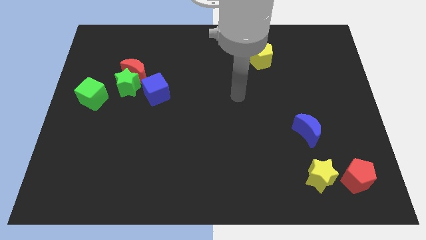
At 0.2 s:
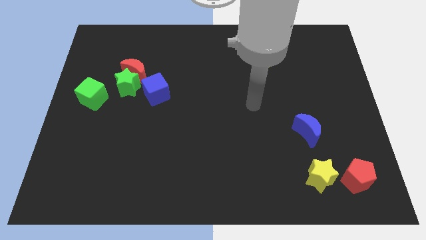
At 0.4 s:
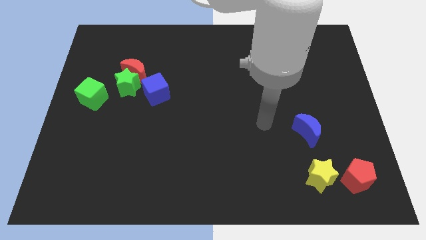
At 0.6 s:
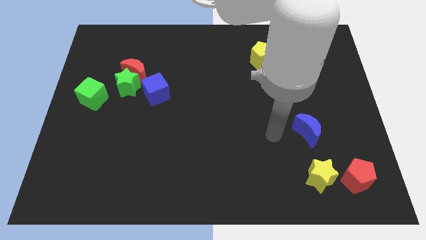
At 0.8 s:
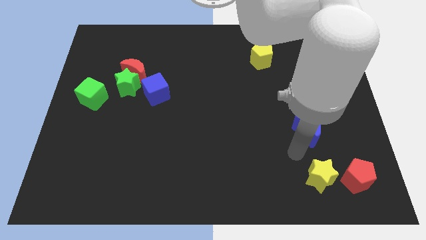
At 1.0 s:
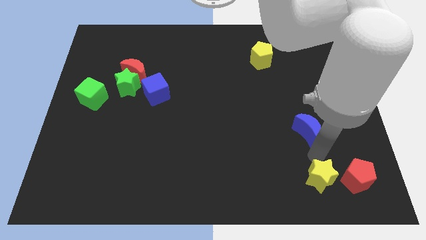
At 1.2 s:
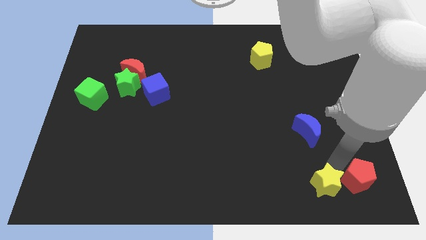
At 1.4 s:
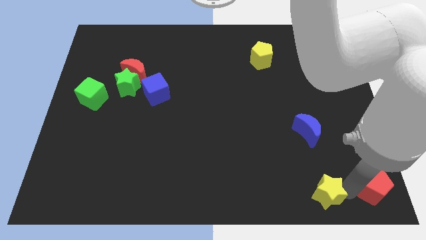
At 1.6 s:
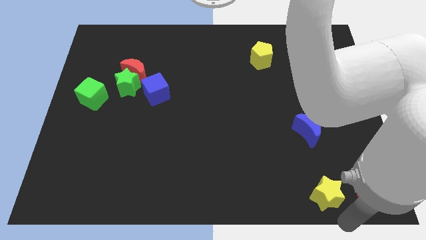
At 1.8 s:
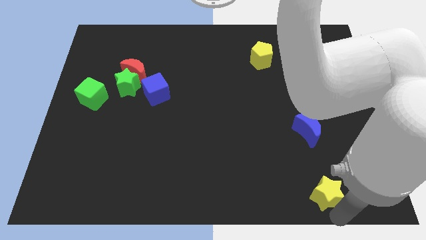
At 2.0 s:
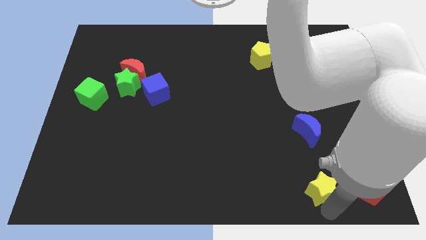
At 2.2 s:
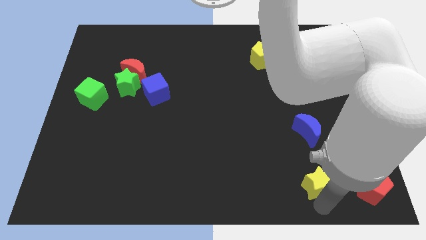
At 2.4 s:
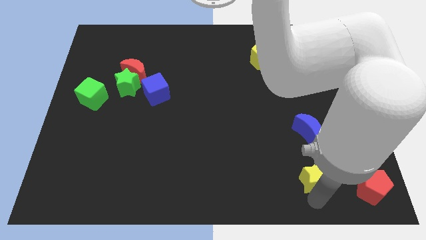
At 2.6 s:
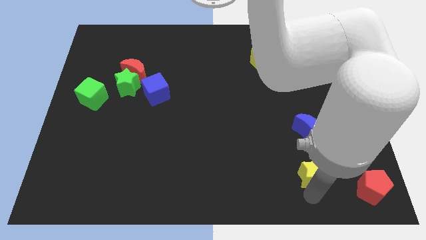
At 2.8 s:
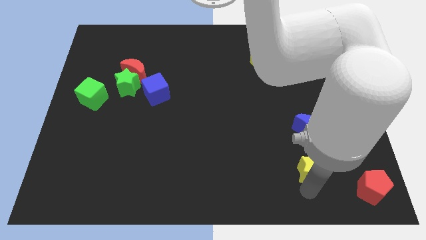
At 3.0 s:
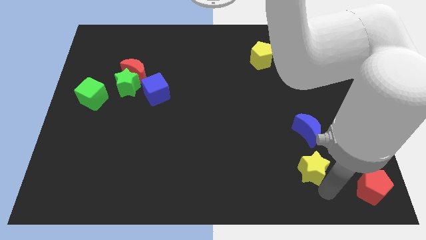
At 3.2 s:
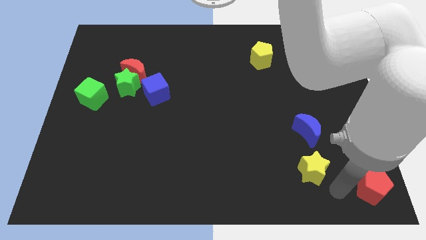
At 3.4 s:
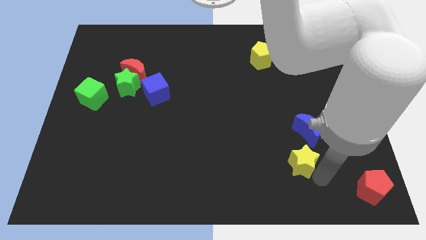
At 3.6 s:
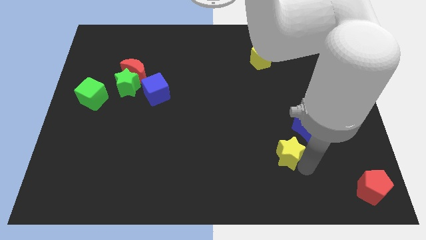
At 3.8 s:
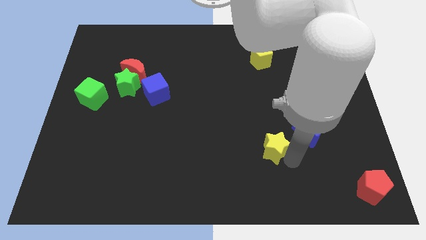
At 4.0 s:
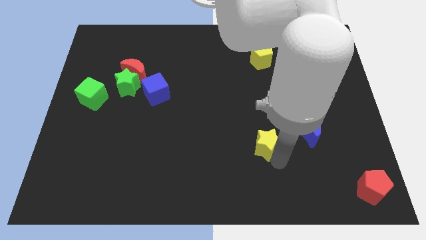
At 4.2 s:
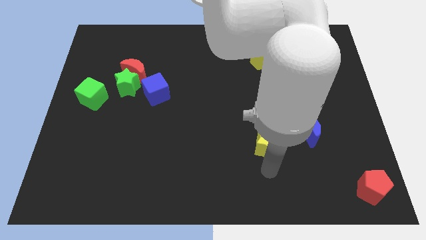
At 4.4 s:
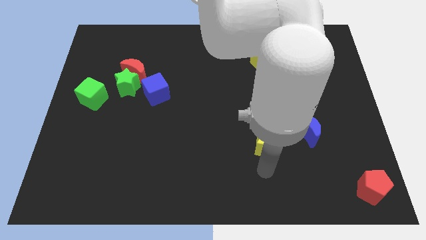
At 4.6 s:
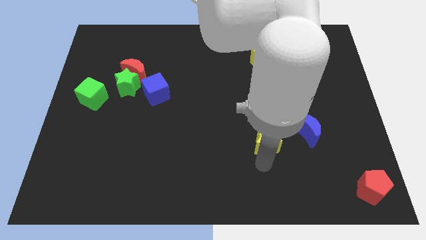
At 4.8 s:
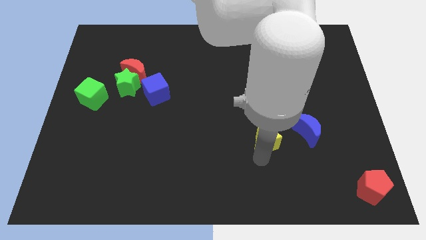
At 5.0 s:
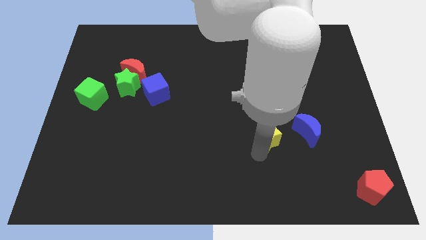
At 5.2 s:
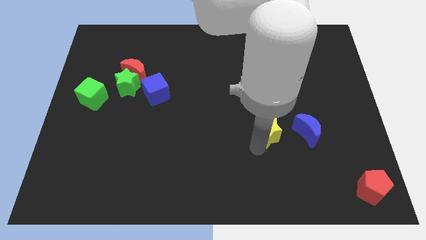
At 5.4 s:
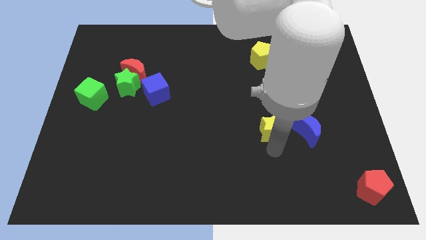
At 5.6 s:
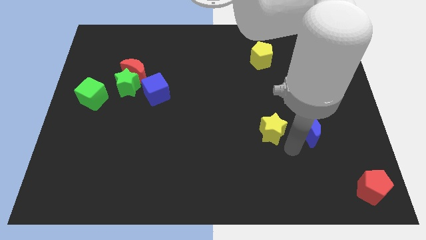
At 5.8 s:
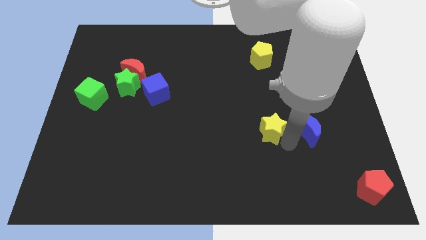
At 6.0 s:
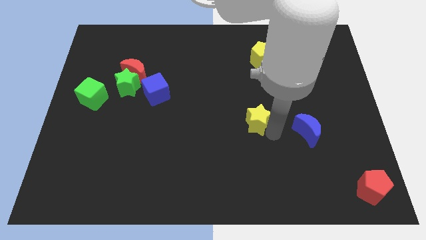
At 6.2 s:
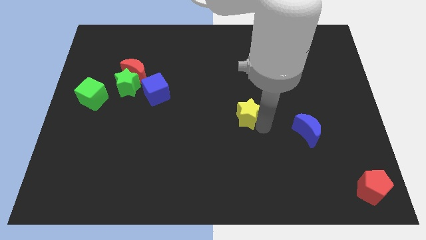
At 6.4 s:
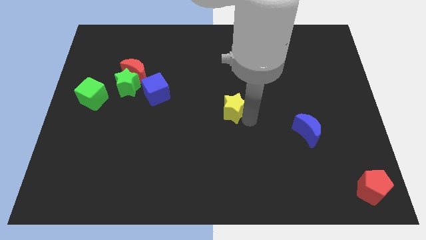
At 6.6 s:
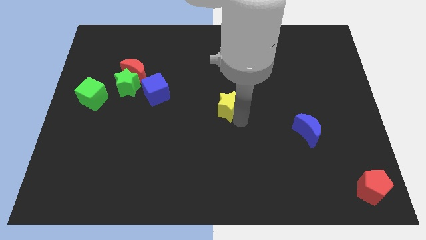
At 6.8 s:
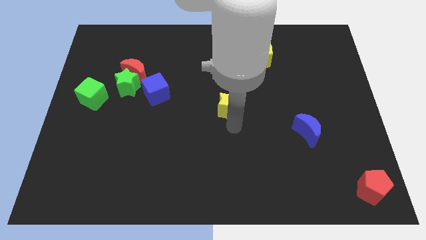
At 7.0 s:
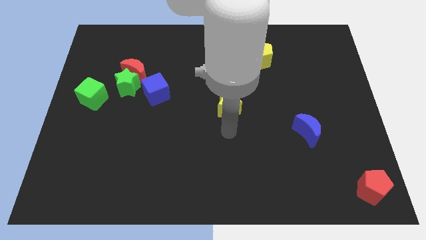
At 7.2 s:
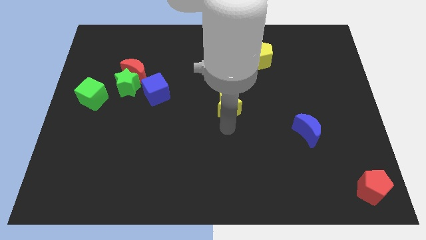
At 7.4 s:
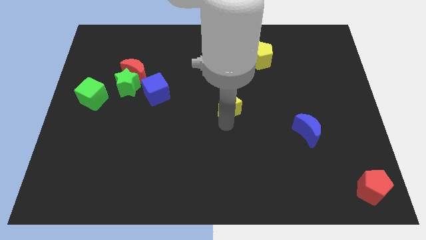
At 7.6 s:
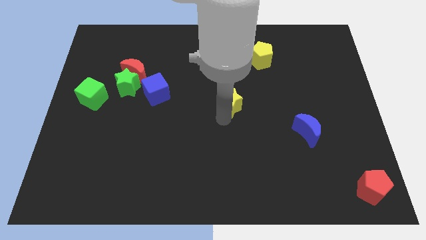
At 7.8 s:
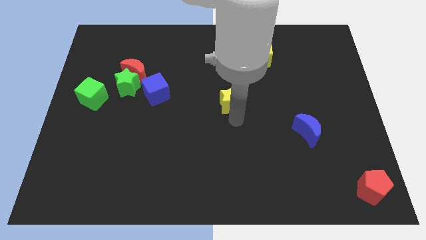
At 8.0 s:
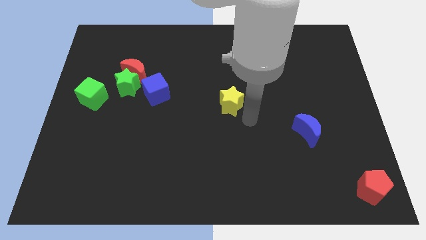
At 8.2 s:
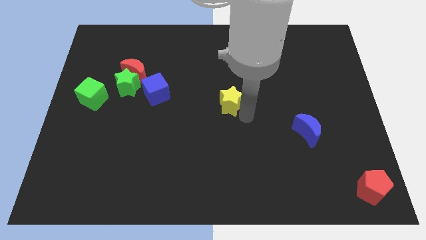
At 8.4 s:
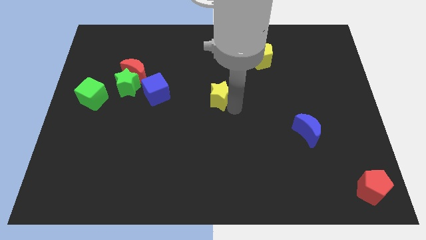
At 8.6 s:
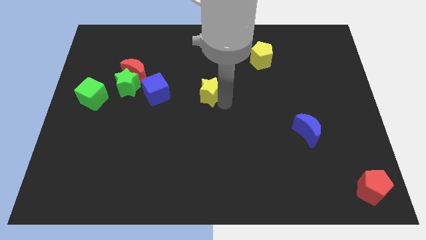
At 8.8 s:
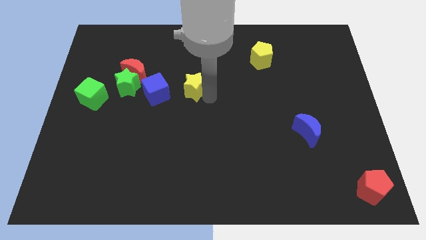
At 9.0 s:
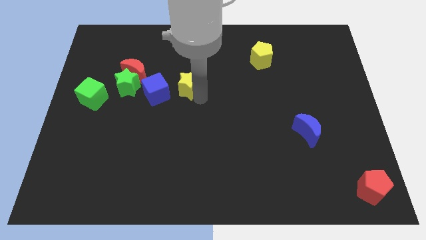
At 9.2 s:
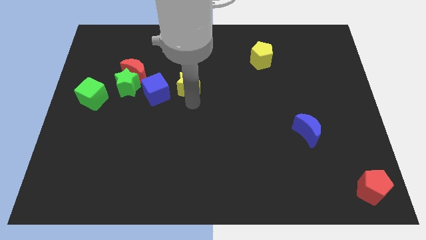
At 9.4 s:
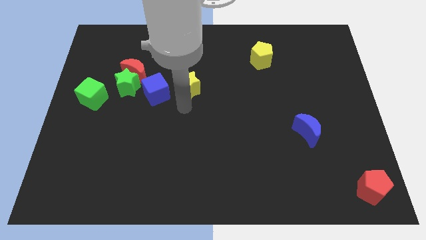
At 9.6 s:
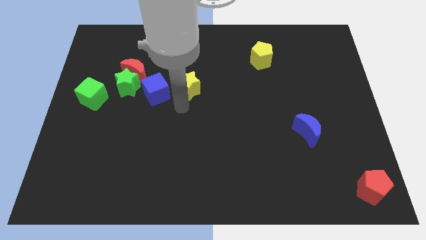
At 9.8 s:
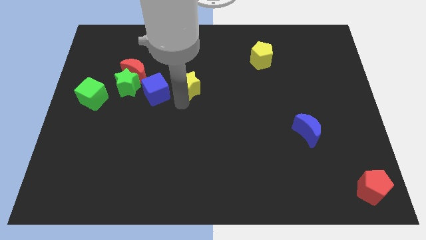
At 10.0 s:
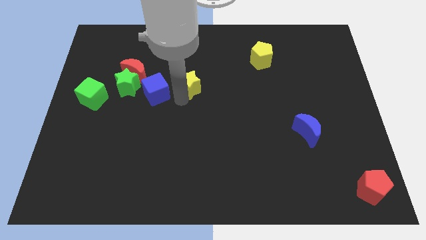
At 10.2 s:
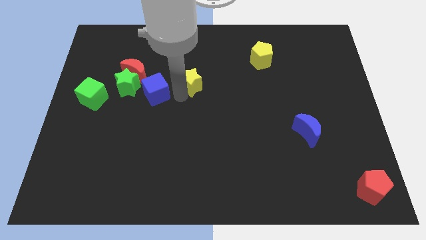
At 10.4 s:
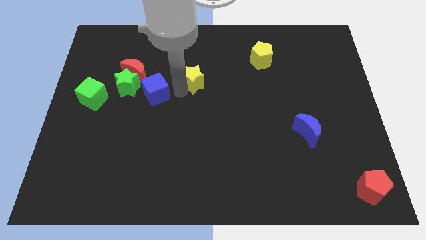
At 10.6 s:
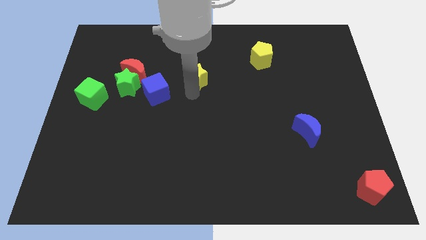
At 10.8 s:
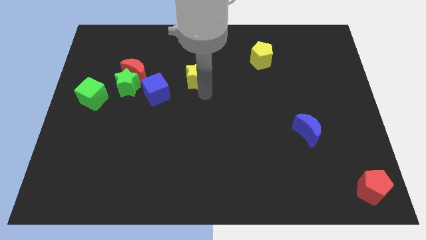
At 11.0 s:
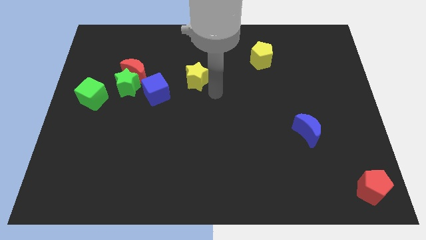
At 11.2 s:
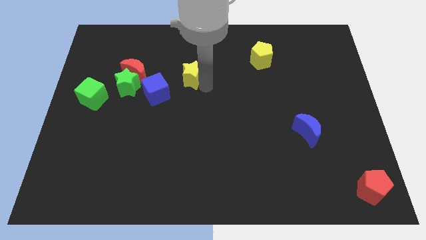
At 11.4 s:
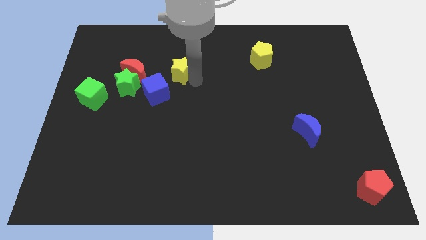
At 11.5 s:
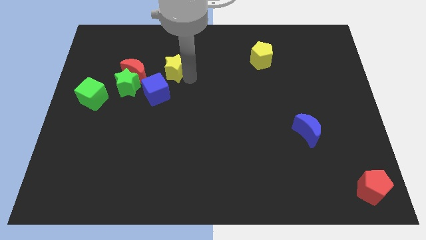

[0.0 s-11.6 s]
put the yellow star to the top of the blue cube

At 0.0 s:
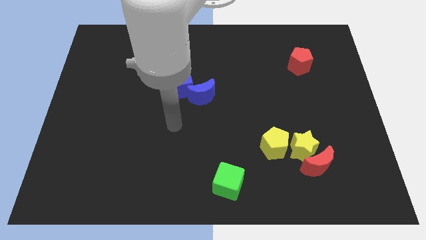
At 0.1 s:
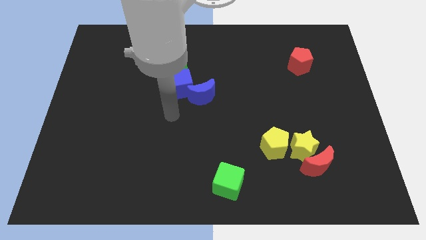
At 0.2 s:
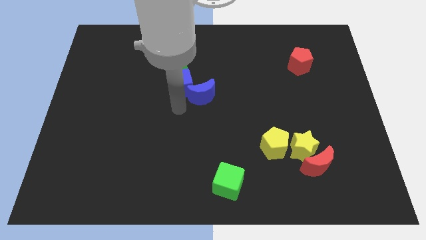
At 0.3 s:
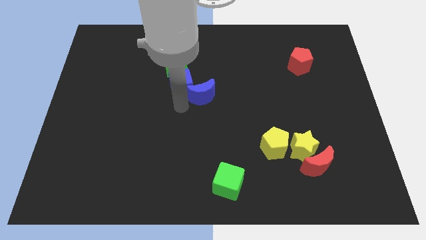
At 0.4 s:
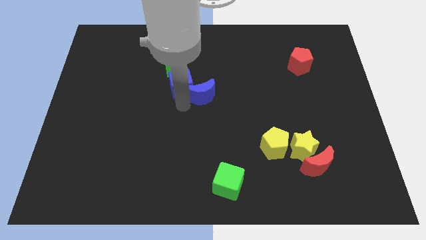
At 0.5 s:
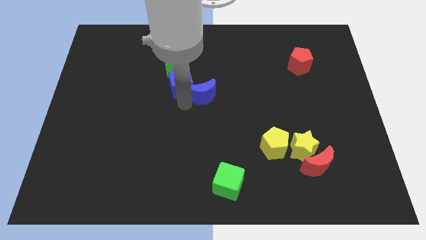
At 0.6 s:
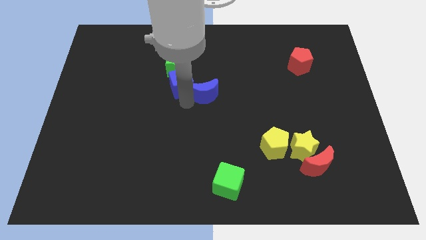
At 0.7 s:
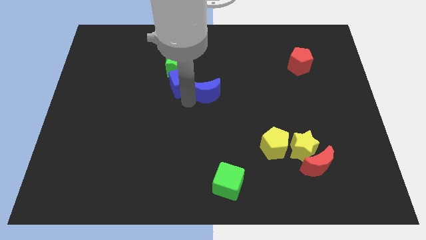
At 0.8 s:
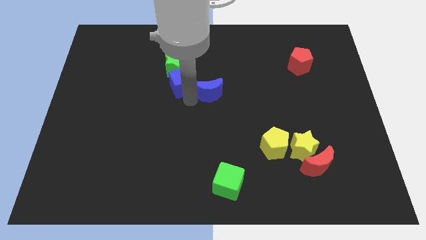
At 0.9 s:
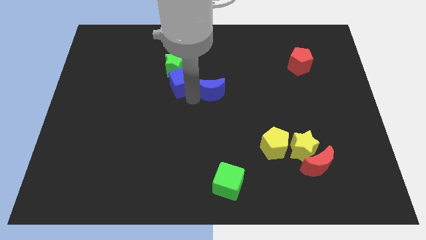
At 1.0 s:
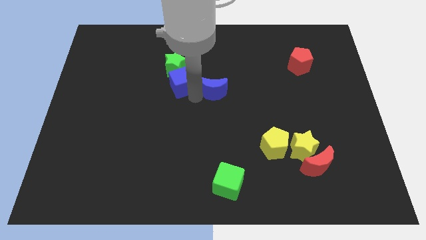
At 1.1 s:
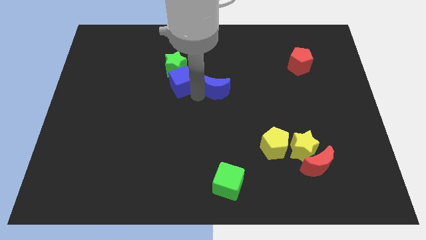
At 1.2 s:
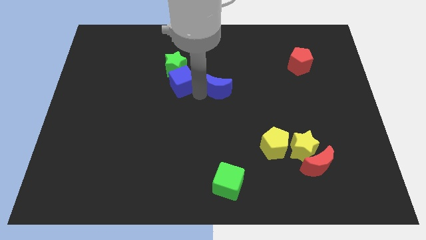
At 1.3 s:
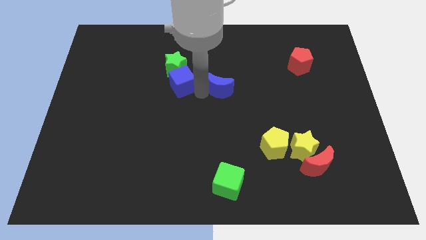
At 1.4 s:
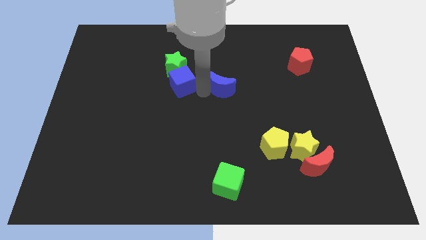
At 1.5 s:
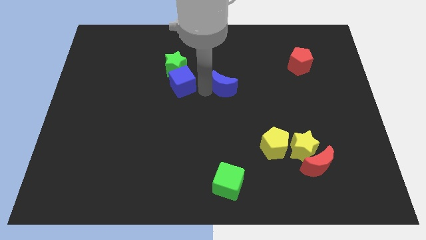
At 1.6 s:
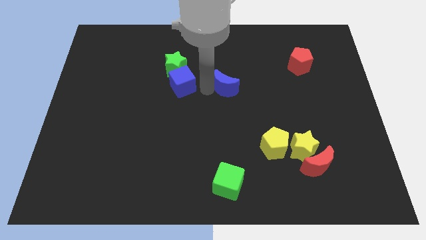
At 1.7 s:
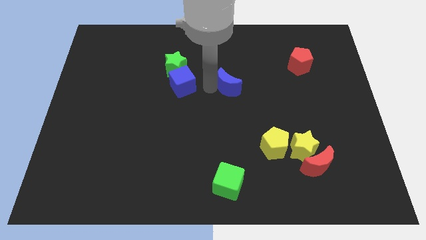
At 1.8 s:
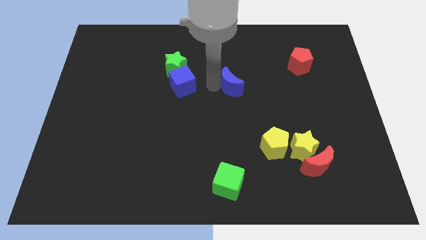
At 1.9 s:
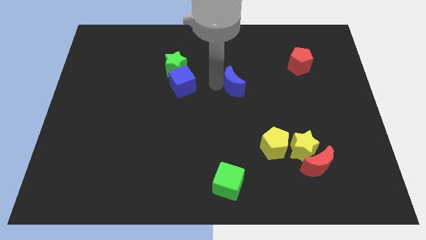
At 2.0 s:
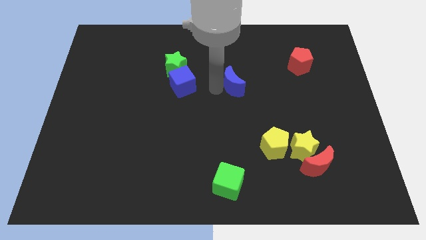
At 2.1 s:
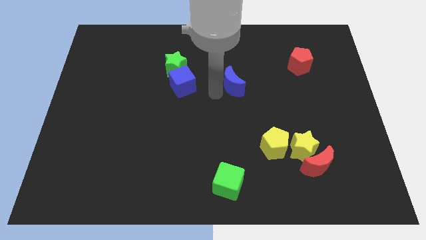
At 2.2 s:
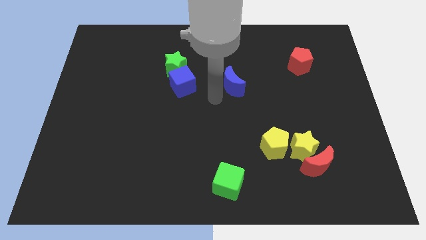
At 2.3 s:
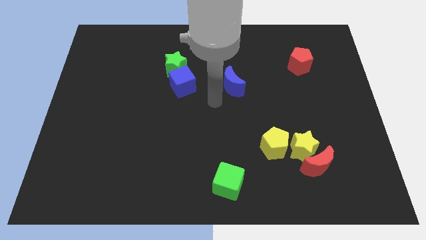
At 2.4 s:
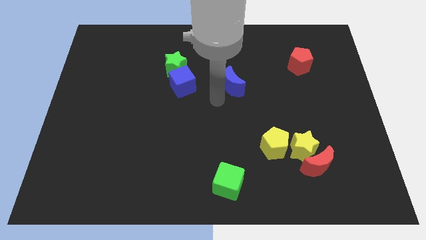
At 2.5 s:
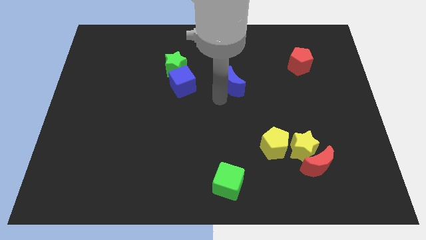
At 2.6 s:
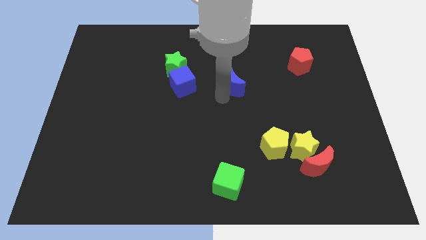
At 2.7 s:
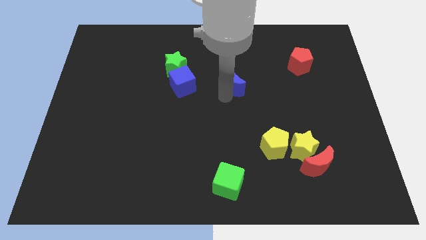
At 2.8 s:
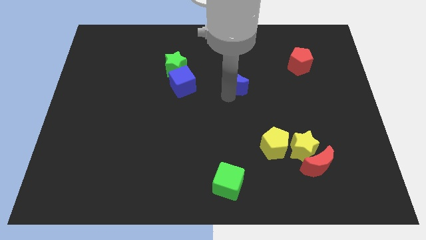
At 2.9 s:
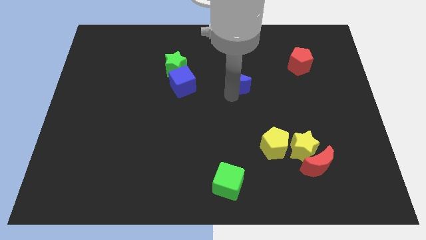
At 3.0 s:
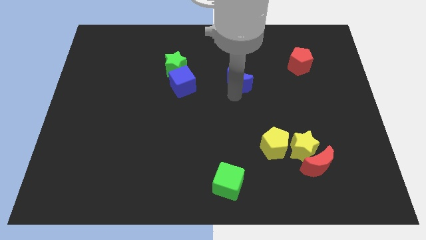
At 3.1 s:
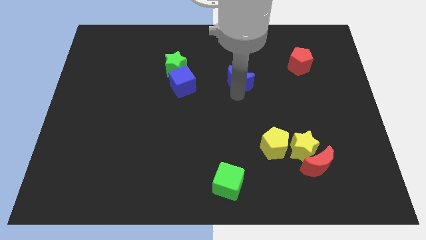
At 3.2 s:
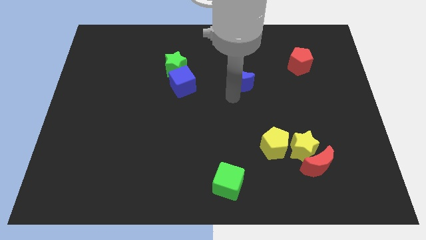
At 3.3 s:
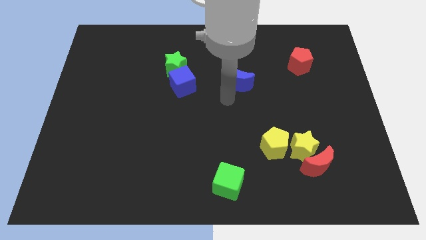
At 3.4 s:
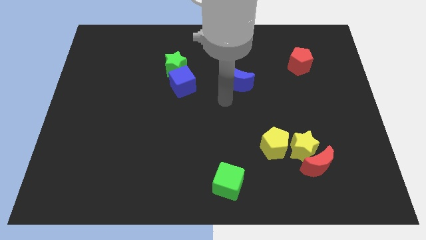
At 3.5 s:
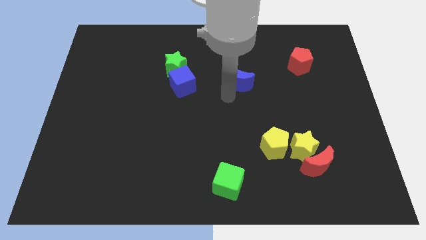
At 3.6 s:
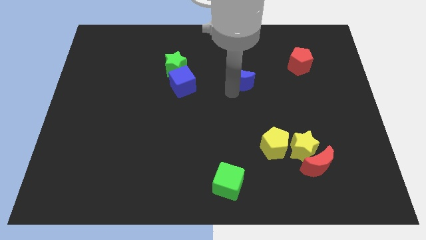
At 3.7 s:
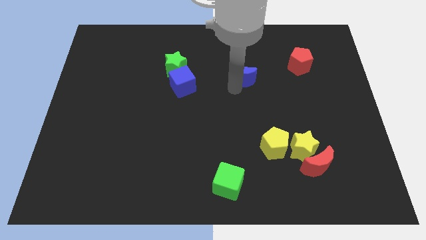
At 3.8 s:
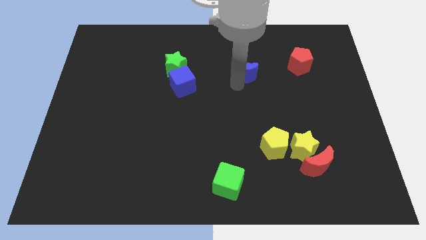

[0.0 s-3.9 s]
push the blue moon left of the red pentagon
